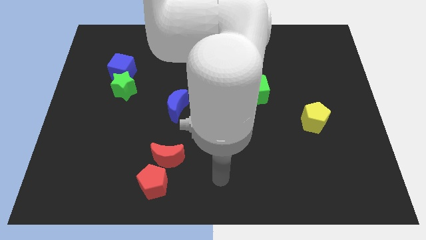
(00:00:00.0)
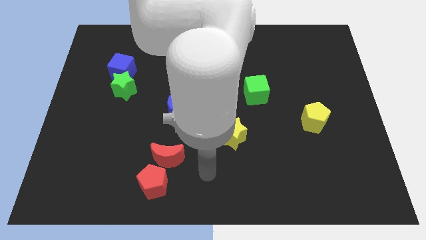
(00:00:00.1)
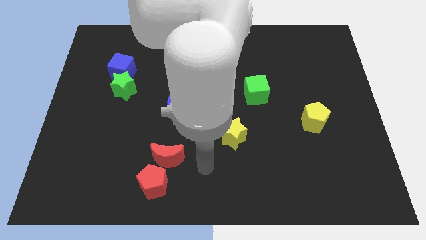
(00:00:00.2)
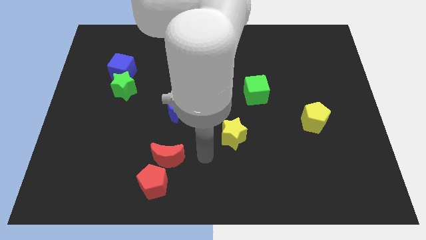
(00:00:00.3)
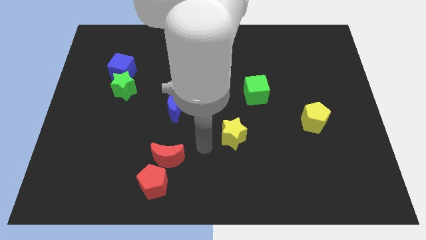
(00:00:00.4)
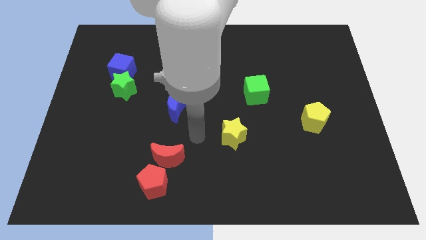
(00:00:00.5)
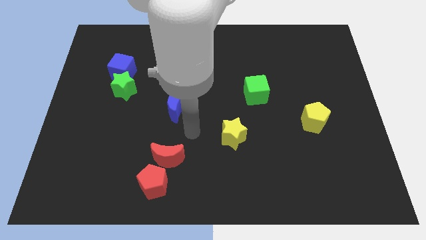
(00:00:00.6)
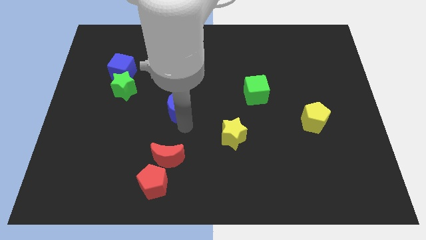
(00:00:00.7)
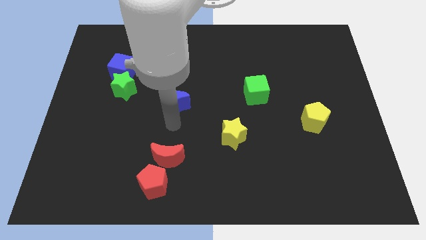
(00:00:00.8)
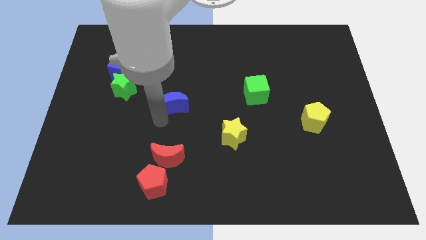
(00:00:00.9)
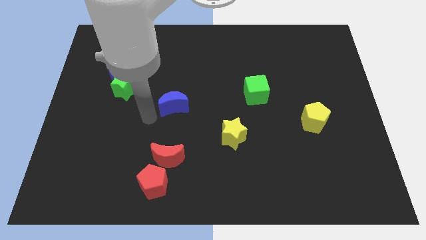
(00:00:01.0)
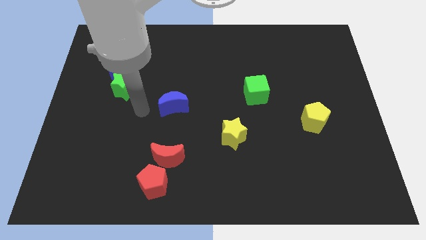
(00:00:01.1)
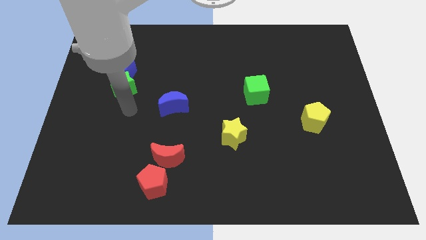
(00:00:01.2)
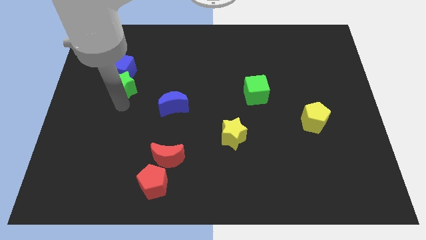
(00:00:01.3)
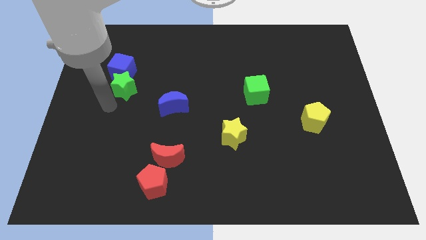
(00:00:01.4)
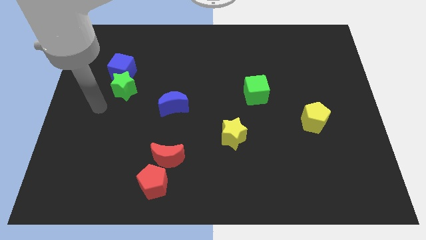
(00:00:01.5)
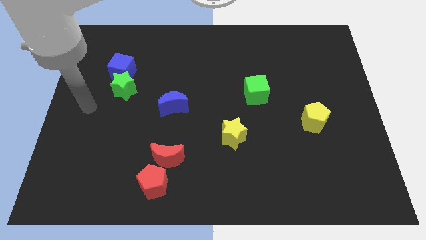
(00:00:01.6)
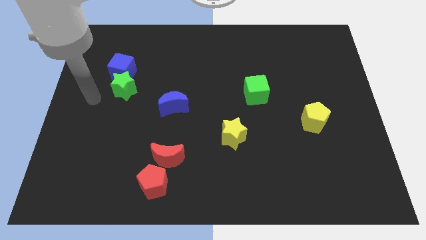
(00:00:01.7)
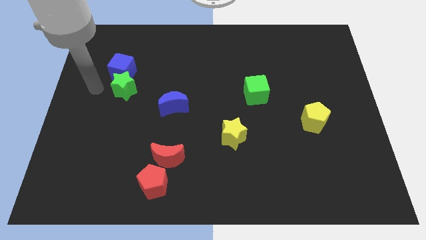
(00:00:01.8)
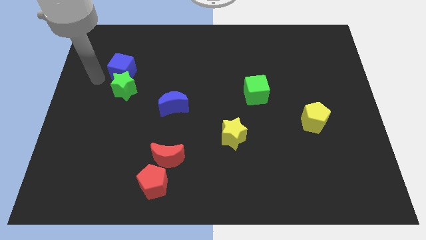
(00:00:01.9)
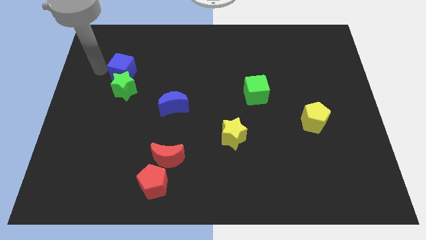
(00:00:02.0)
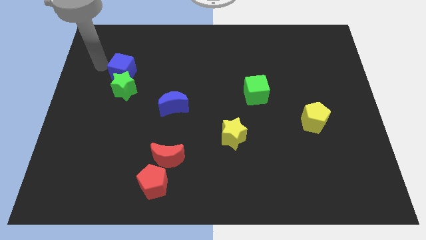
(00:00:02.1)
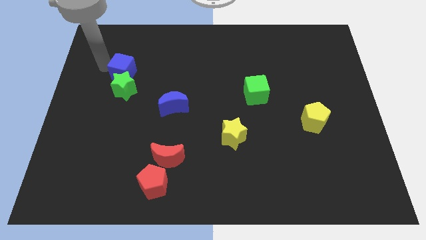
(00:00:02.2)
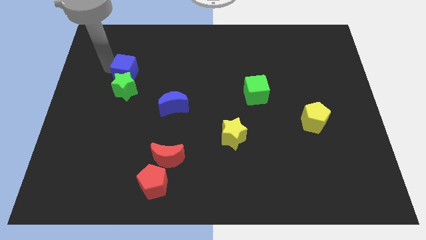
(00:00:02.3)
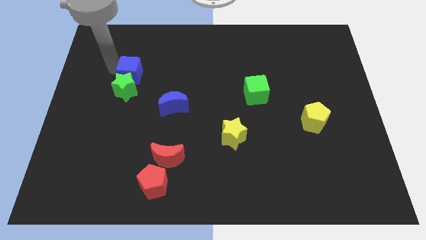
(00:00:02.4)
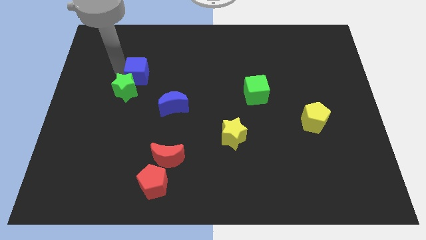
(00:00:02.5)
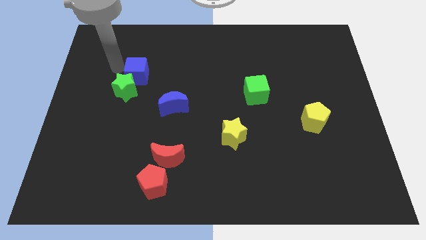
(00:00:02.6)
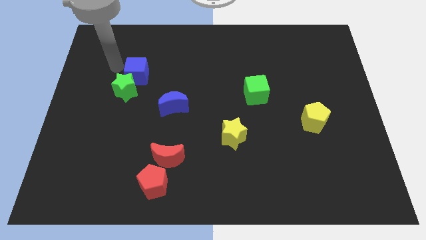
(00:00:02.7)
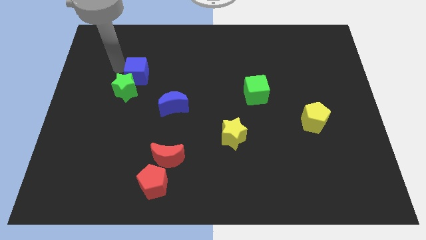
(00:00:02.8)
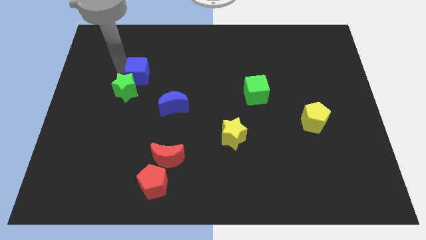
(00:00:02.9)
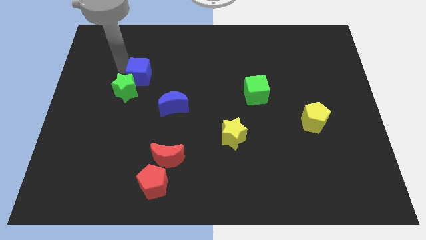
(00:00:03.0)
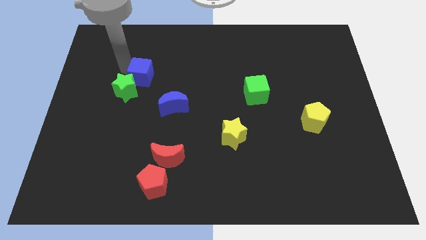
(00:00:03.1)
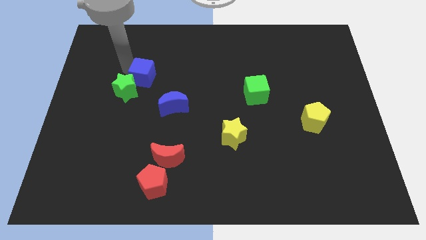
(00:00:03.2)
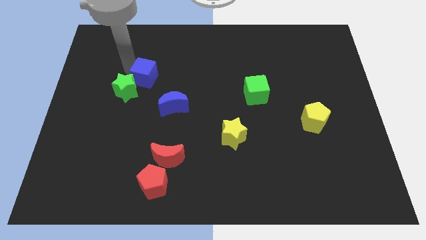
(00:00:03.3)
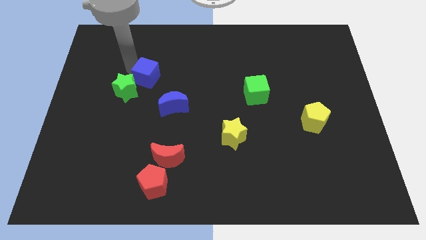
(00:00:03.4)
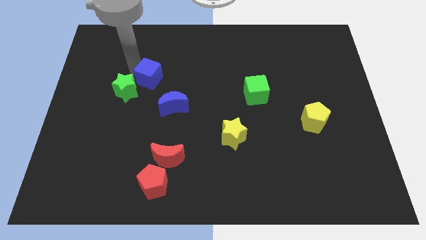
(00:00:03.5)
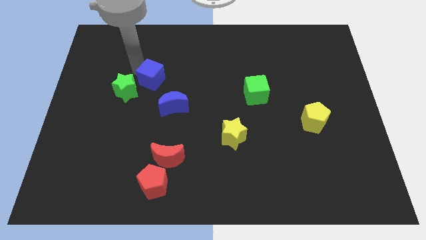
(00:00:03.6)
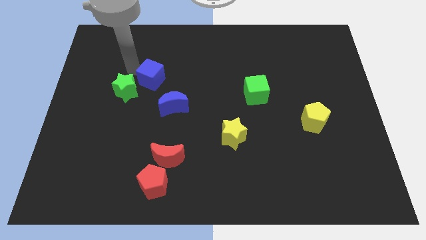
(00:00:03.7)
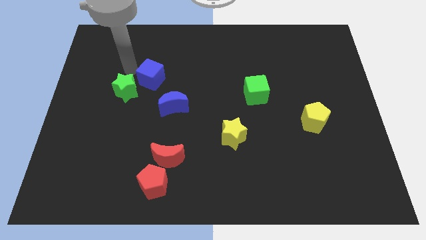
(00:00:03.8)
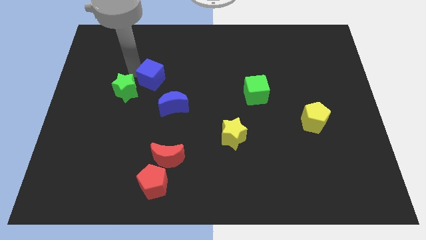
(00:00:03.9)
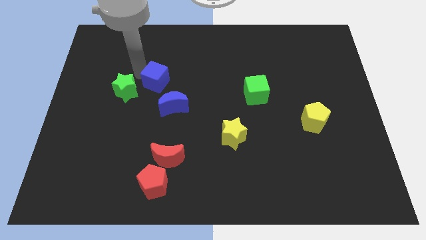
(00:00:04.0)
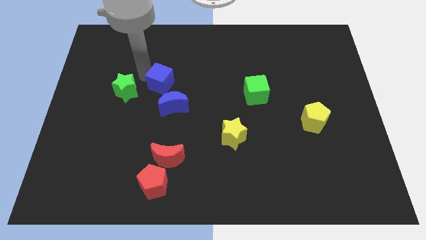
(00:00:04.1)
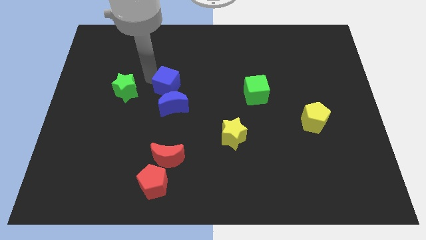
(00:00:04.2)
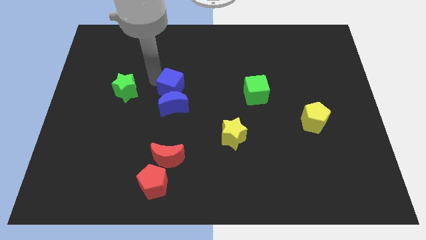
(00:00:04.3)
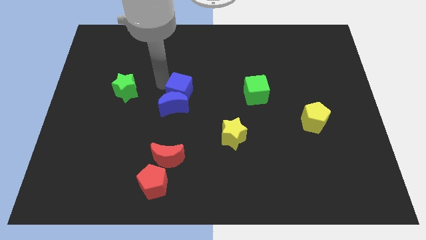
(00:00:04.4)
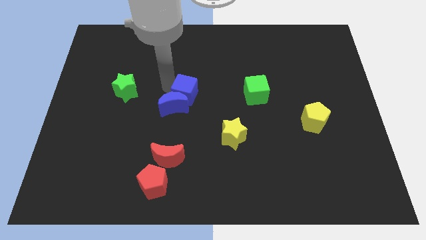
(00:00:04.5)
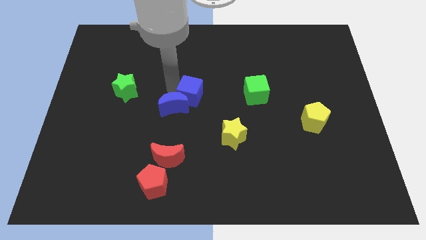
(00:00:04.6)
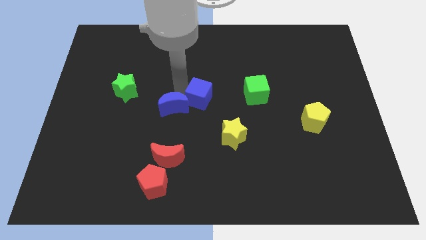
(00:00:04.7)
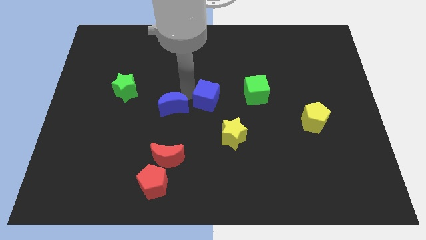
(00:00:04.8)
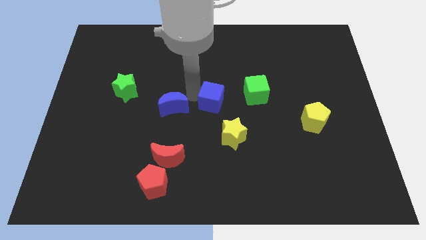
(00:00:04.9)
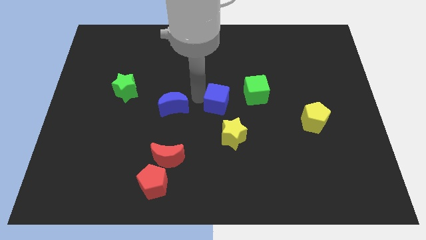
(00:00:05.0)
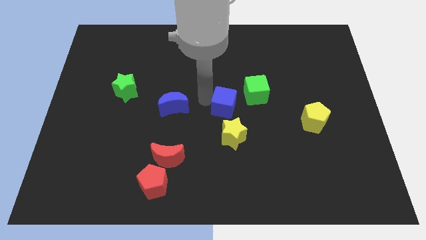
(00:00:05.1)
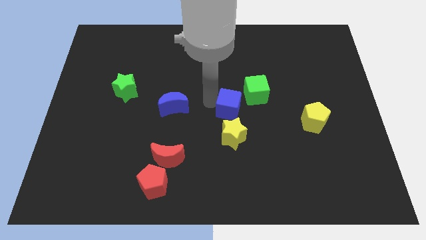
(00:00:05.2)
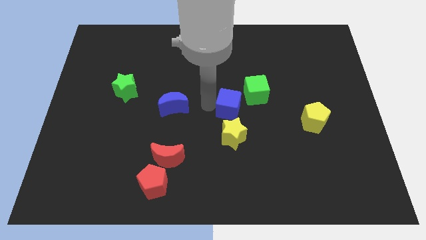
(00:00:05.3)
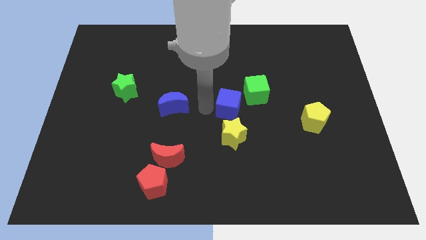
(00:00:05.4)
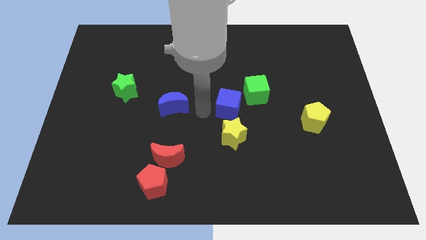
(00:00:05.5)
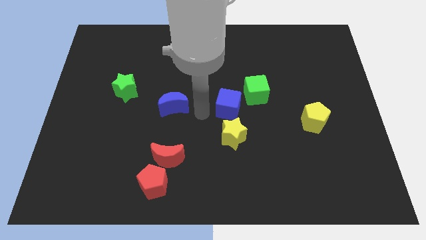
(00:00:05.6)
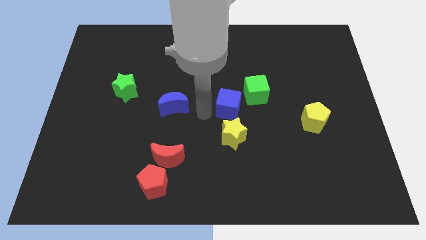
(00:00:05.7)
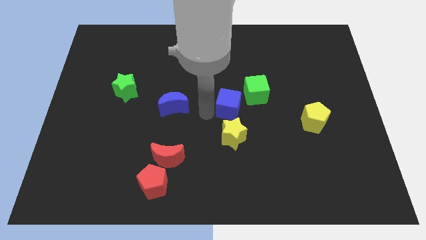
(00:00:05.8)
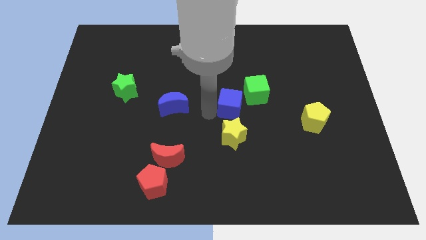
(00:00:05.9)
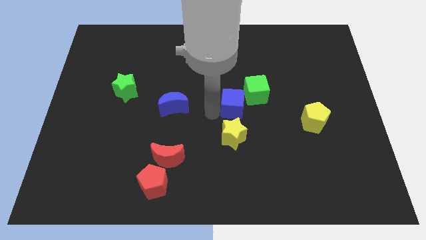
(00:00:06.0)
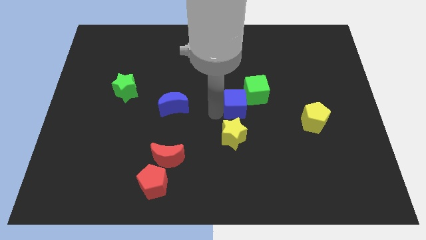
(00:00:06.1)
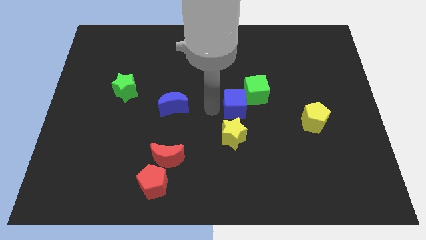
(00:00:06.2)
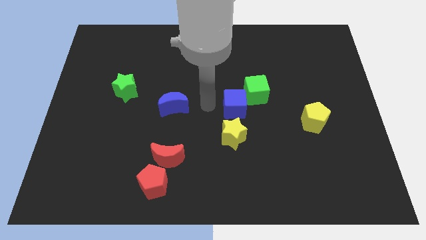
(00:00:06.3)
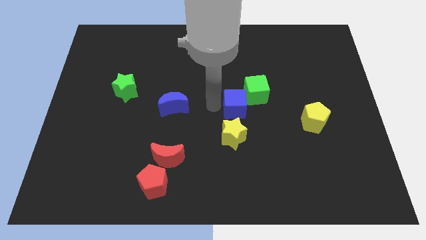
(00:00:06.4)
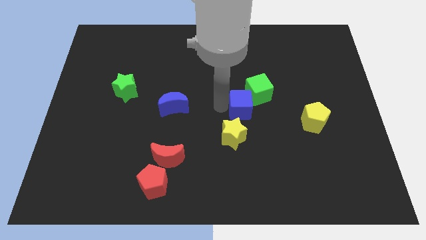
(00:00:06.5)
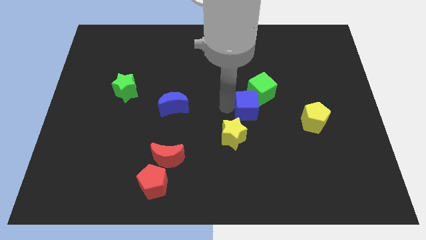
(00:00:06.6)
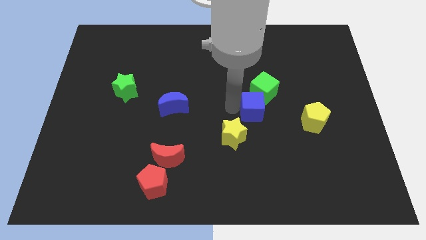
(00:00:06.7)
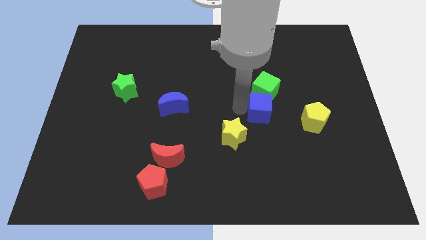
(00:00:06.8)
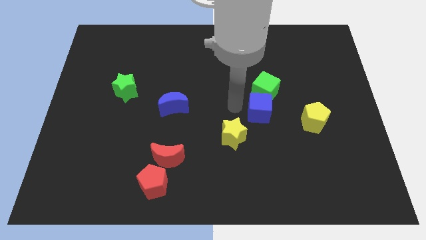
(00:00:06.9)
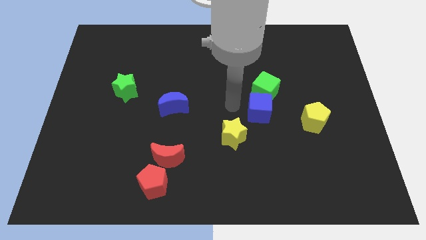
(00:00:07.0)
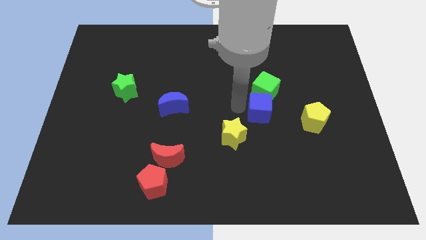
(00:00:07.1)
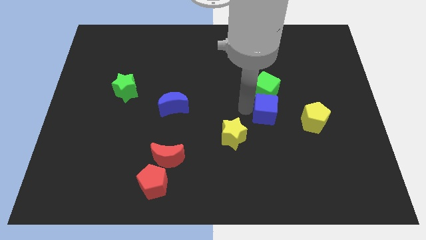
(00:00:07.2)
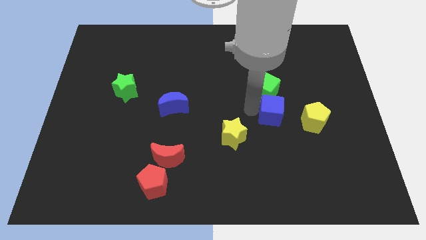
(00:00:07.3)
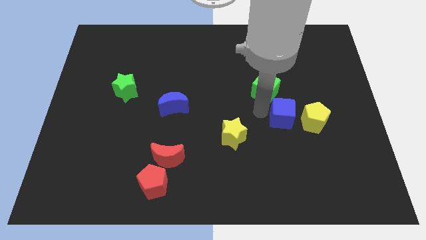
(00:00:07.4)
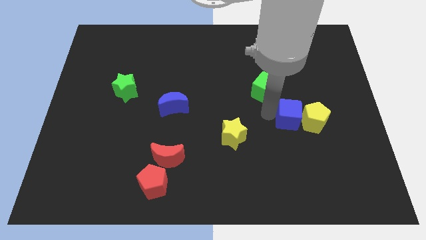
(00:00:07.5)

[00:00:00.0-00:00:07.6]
slide the blue cube to the yellow pentagon
